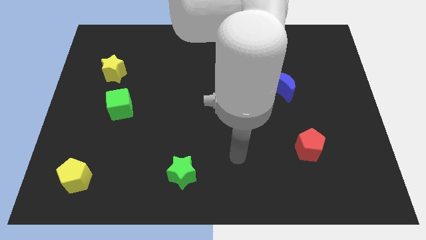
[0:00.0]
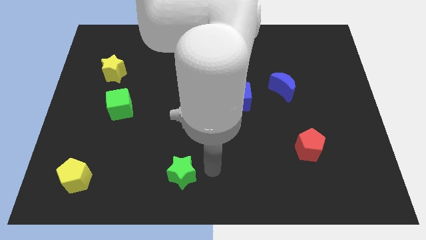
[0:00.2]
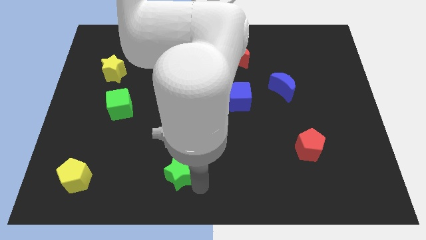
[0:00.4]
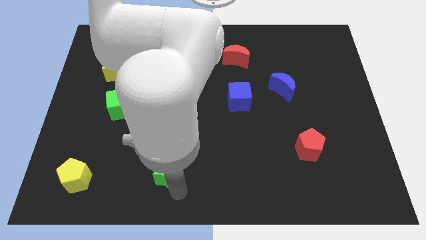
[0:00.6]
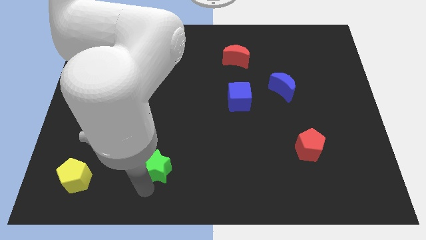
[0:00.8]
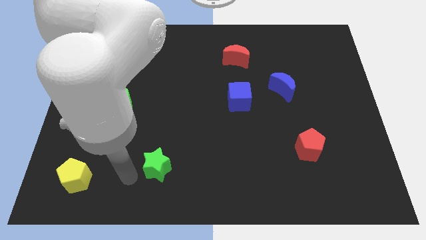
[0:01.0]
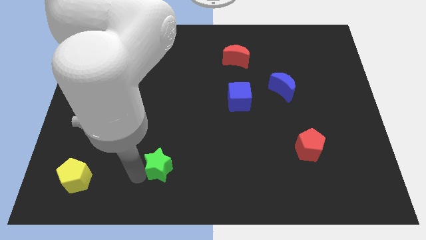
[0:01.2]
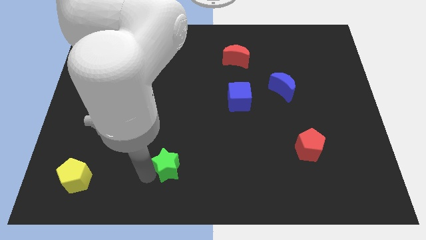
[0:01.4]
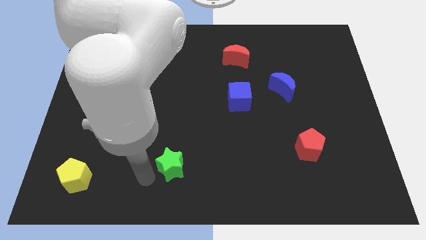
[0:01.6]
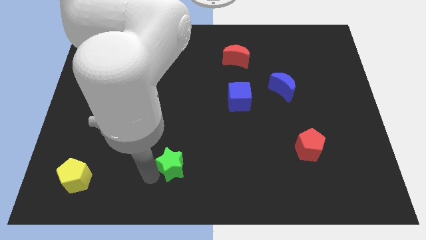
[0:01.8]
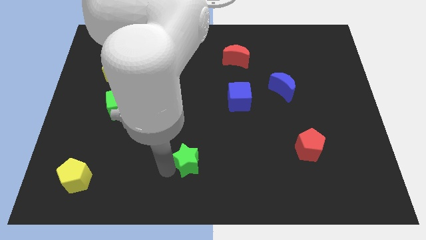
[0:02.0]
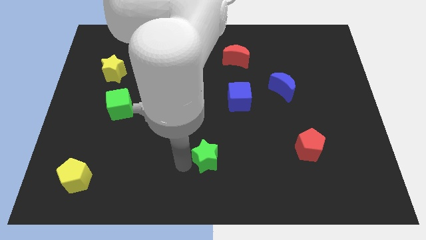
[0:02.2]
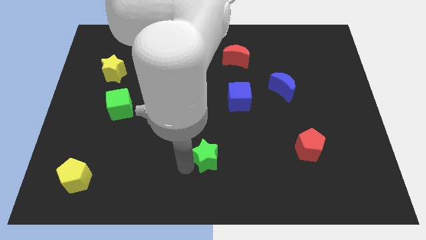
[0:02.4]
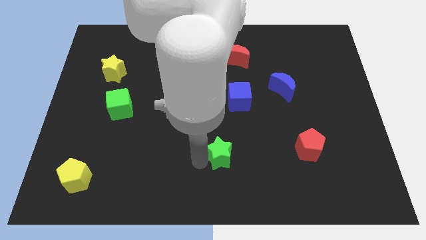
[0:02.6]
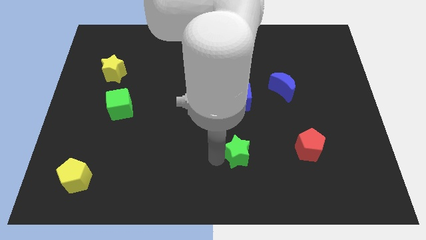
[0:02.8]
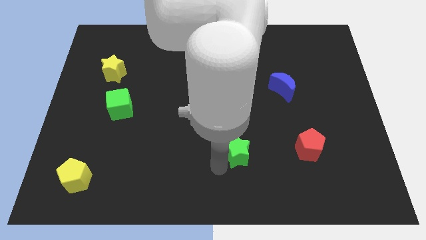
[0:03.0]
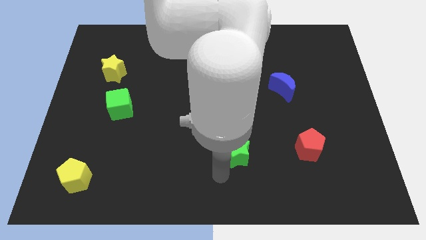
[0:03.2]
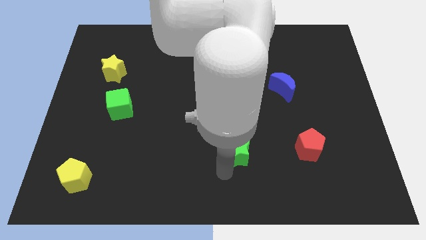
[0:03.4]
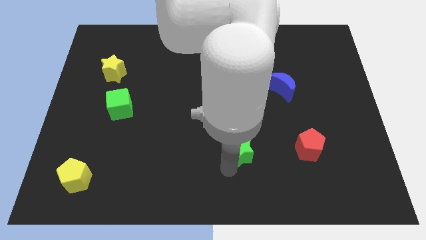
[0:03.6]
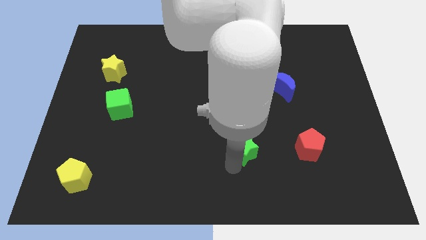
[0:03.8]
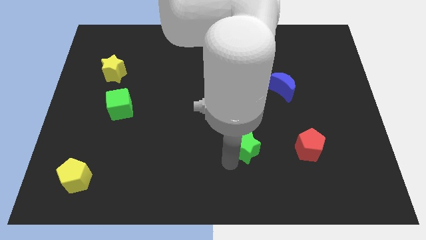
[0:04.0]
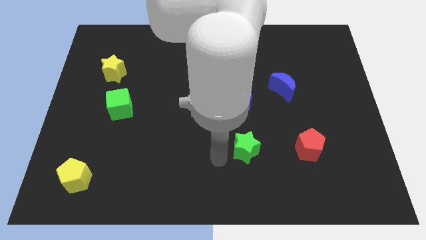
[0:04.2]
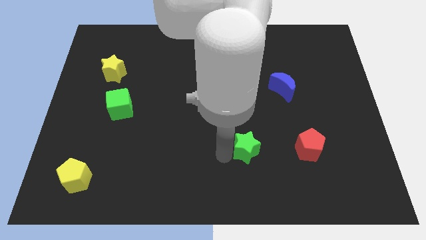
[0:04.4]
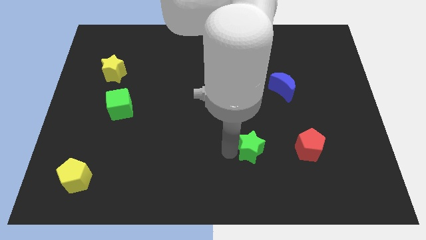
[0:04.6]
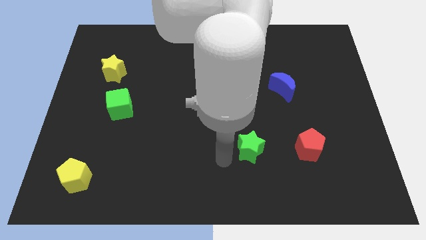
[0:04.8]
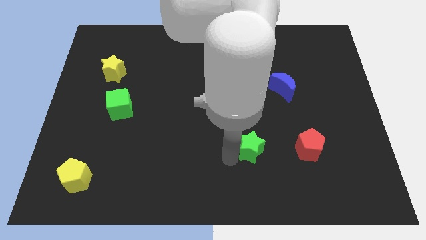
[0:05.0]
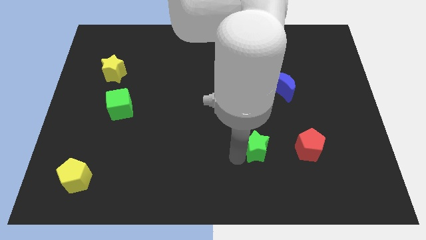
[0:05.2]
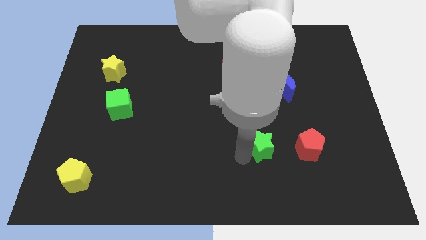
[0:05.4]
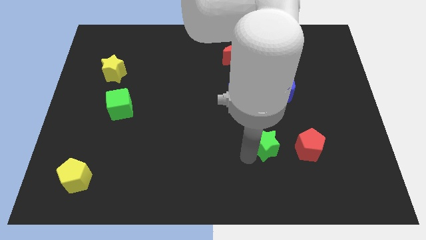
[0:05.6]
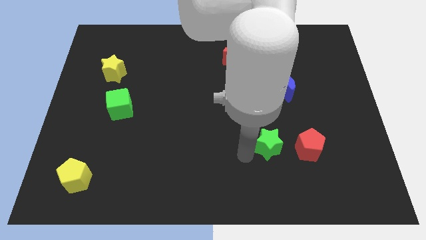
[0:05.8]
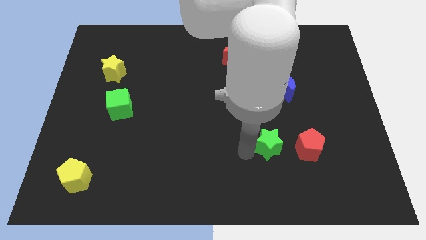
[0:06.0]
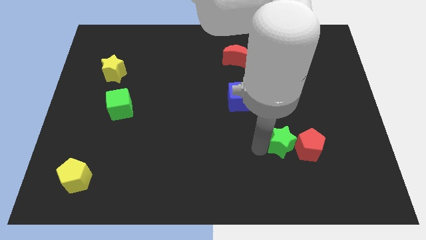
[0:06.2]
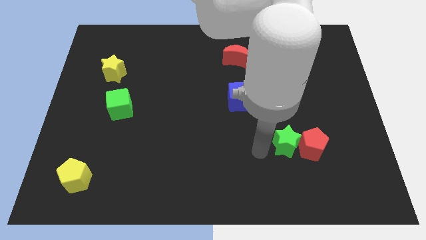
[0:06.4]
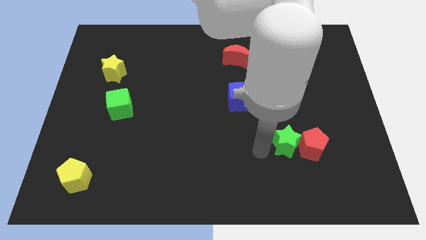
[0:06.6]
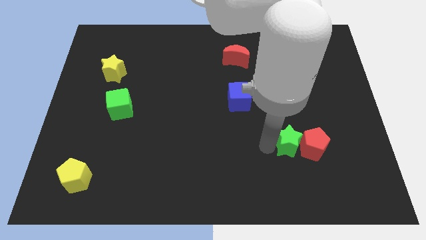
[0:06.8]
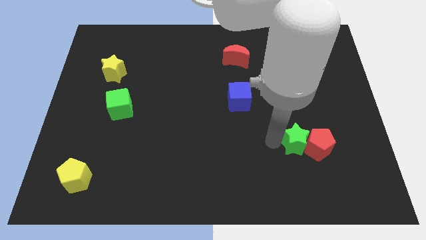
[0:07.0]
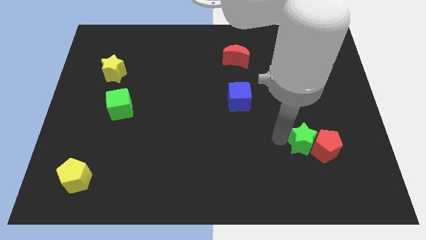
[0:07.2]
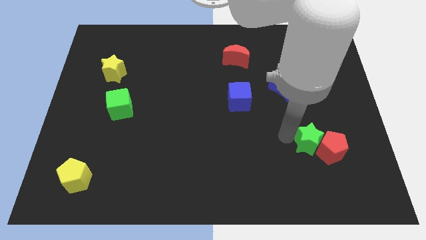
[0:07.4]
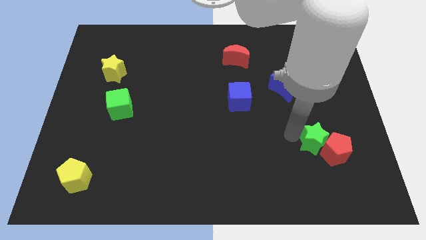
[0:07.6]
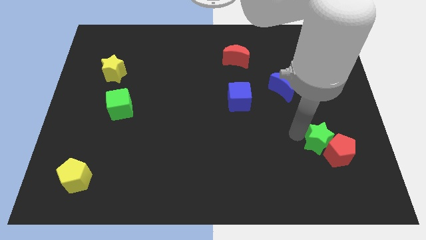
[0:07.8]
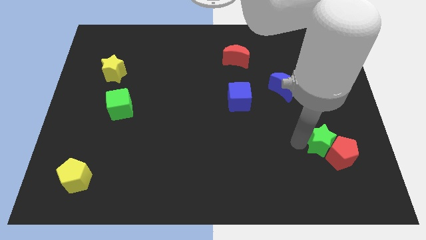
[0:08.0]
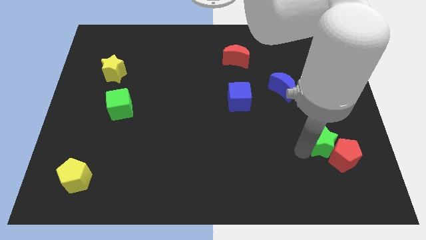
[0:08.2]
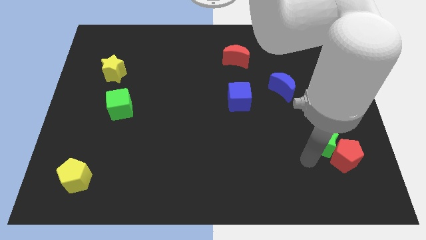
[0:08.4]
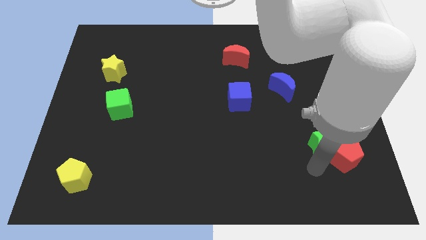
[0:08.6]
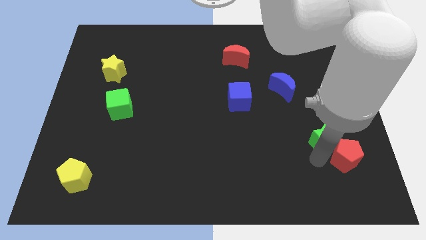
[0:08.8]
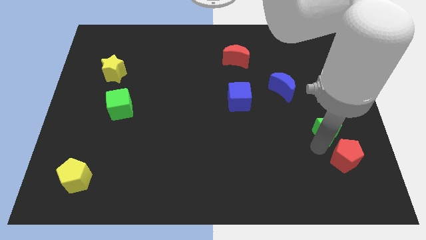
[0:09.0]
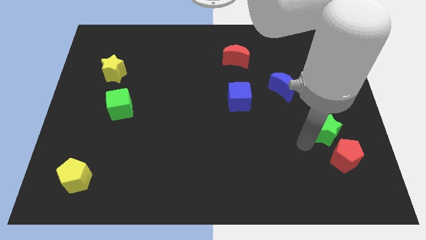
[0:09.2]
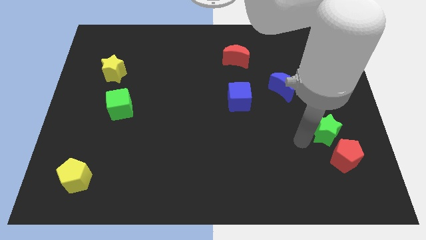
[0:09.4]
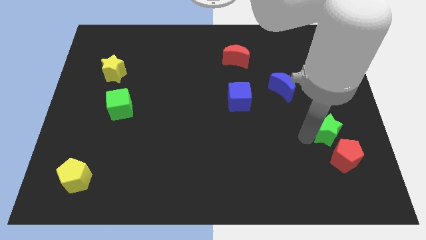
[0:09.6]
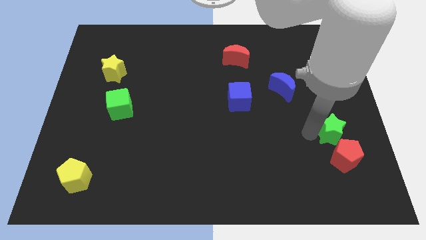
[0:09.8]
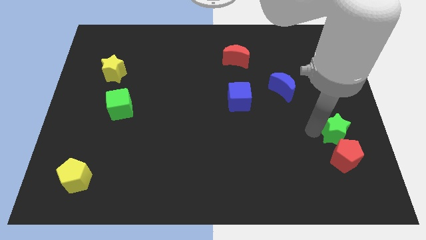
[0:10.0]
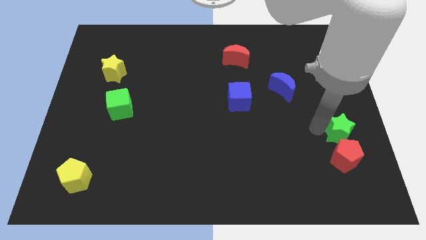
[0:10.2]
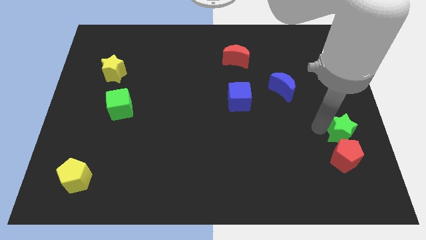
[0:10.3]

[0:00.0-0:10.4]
slide the green star to the right side of the board
